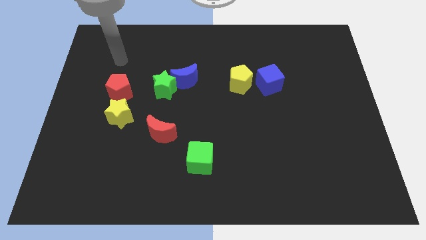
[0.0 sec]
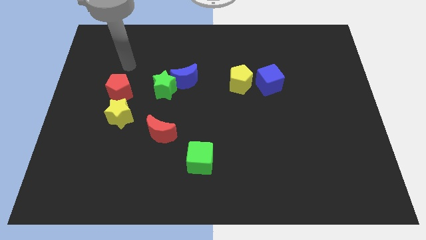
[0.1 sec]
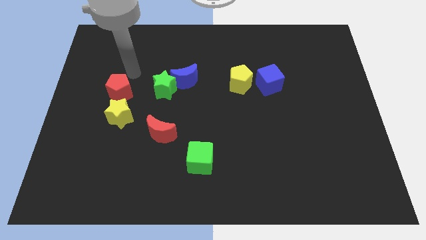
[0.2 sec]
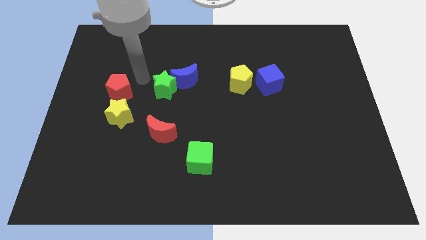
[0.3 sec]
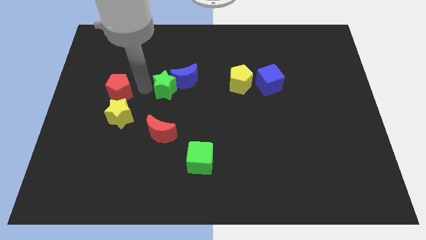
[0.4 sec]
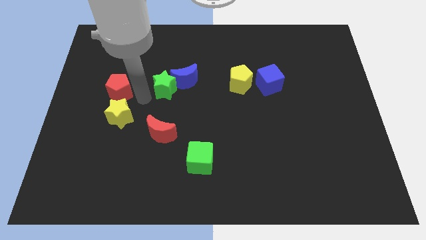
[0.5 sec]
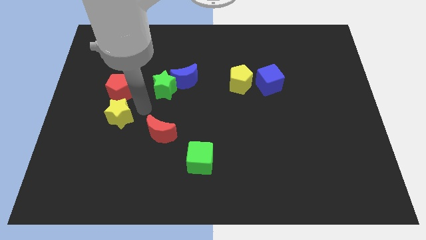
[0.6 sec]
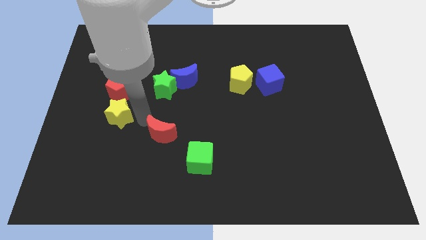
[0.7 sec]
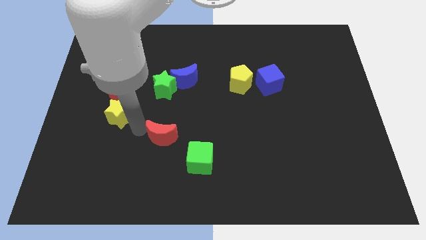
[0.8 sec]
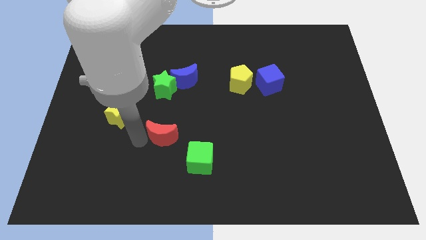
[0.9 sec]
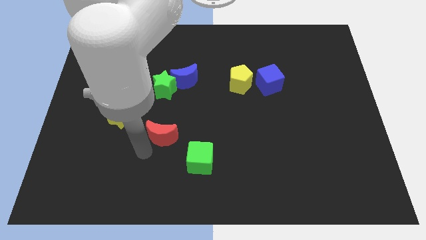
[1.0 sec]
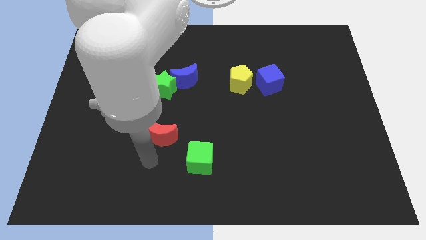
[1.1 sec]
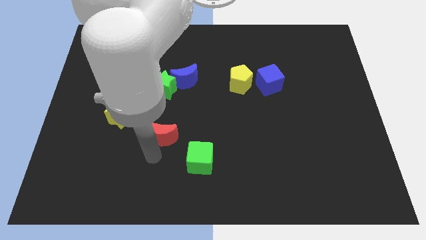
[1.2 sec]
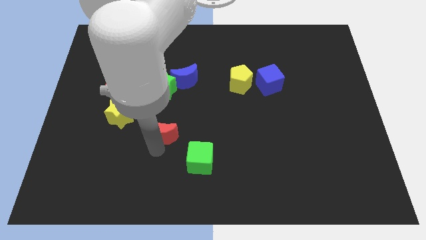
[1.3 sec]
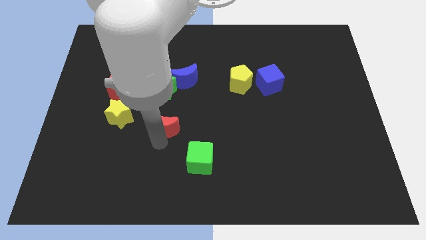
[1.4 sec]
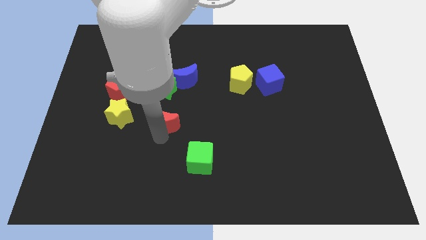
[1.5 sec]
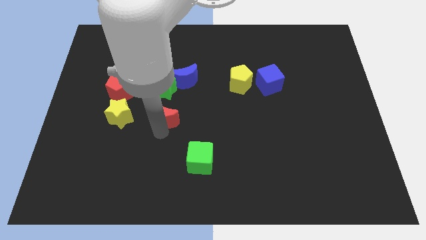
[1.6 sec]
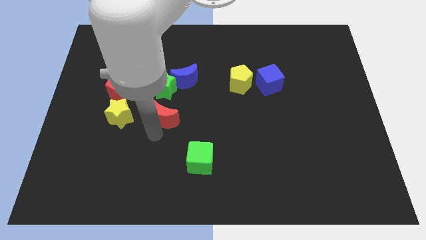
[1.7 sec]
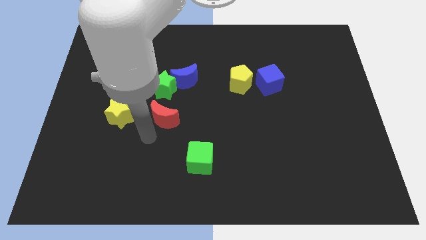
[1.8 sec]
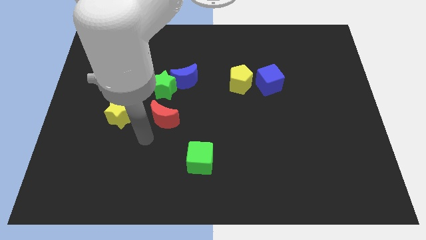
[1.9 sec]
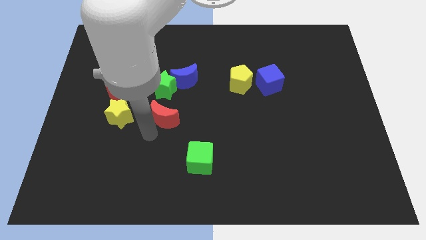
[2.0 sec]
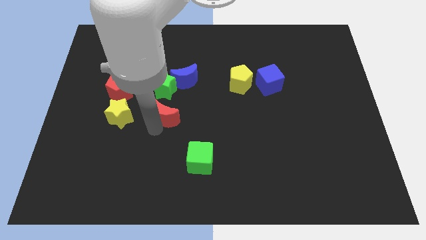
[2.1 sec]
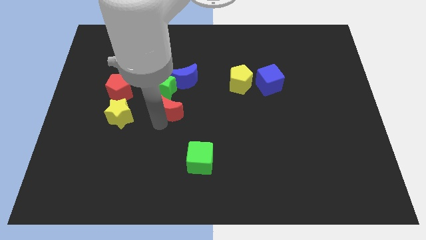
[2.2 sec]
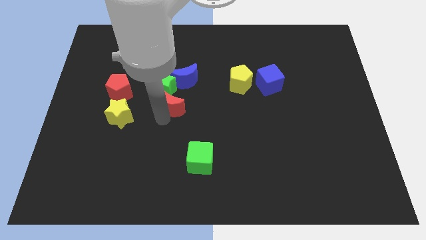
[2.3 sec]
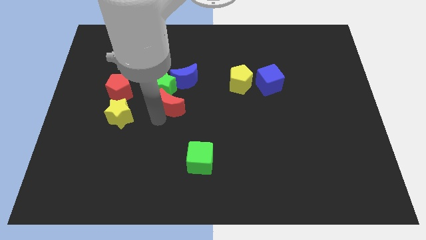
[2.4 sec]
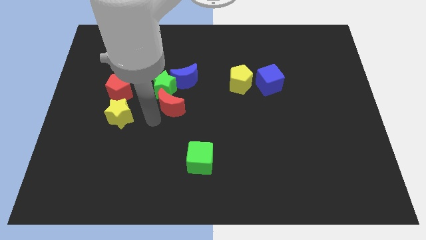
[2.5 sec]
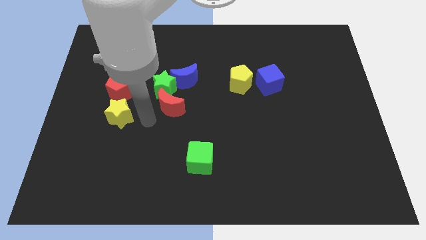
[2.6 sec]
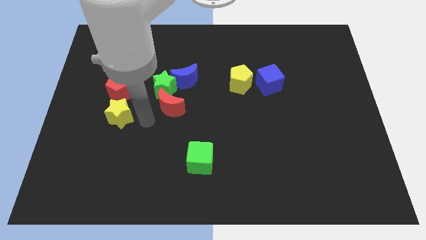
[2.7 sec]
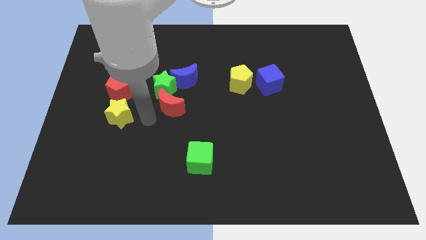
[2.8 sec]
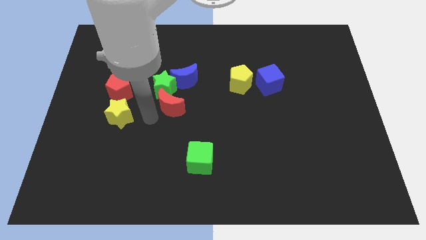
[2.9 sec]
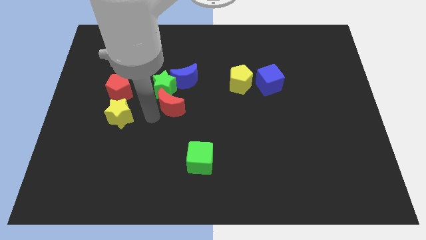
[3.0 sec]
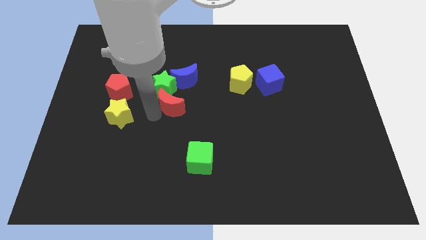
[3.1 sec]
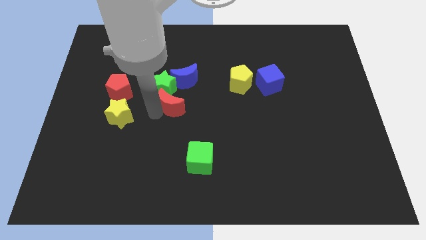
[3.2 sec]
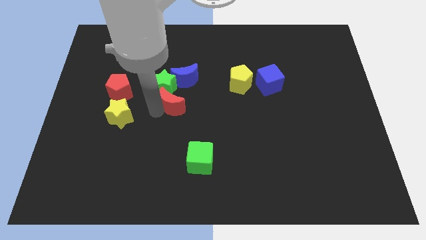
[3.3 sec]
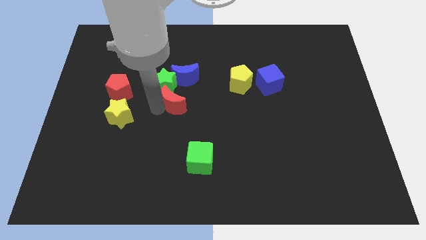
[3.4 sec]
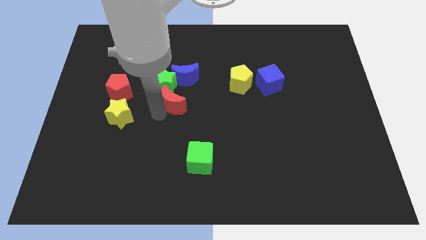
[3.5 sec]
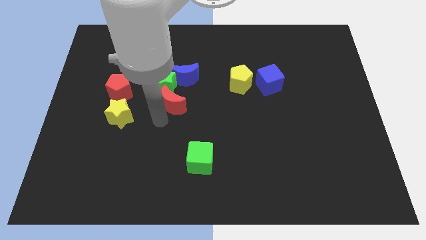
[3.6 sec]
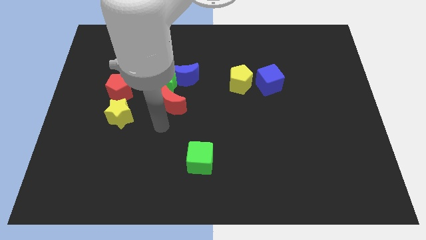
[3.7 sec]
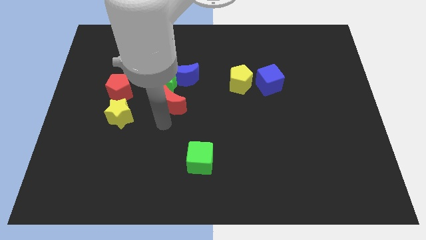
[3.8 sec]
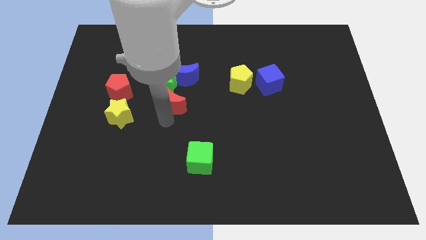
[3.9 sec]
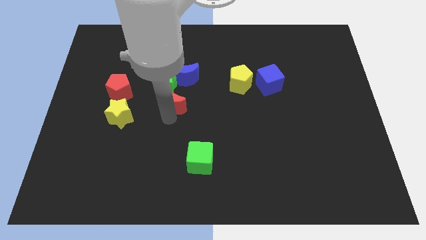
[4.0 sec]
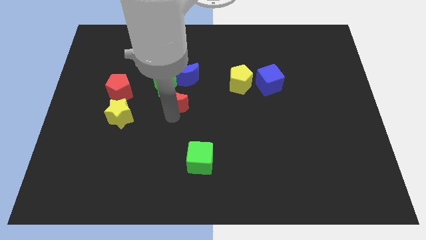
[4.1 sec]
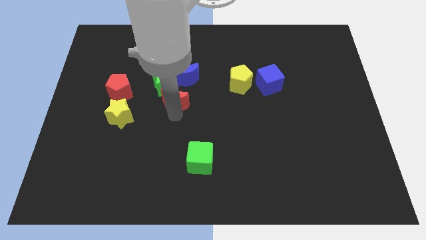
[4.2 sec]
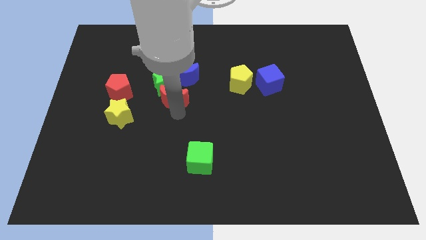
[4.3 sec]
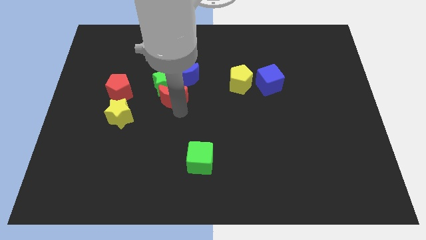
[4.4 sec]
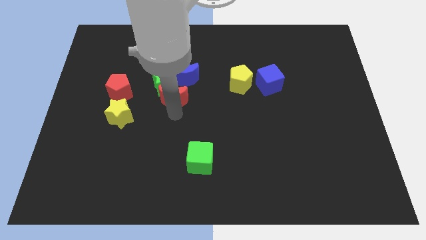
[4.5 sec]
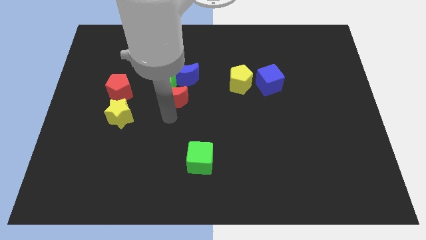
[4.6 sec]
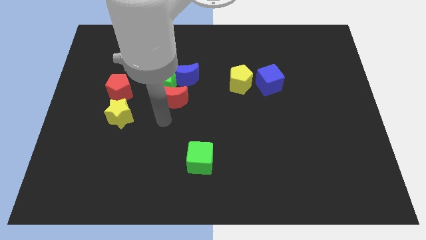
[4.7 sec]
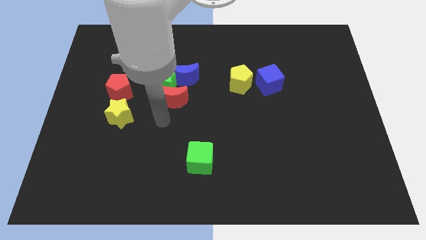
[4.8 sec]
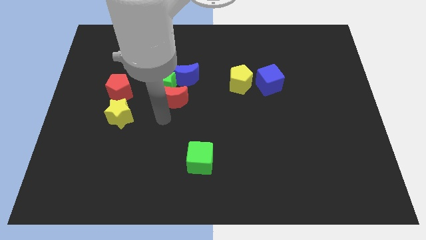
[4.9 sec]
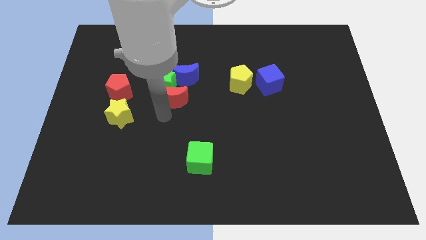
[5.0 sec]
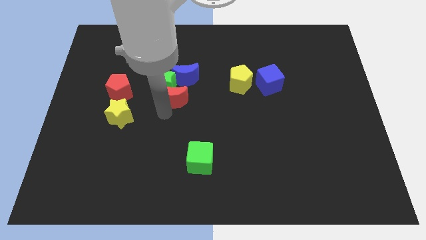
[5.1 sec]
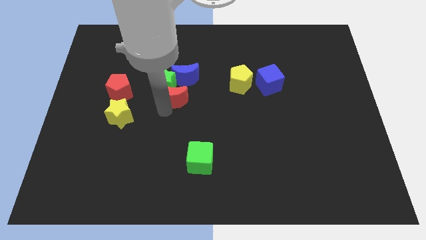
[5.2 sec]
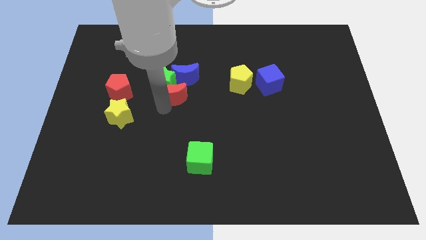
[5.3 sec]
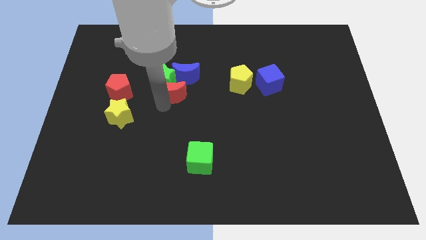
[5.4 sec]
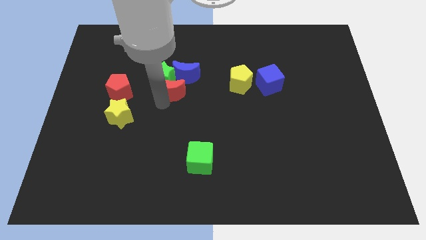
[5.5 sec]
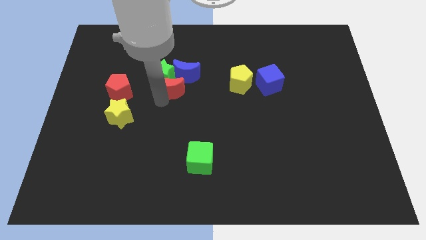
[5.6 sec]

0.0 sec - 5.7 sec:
push the red moon next to the blue moon

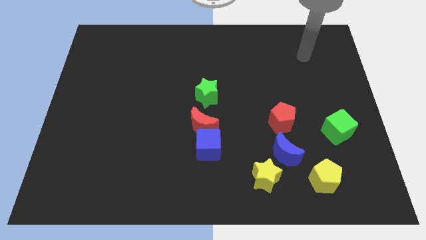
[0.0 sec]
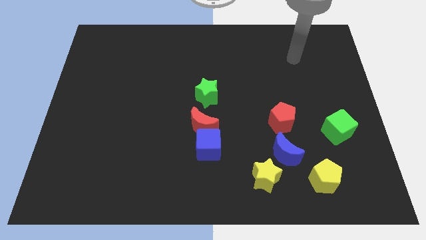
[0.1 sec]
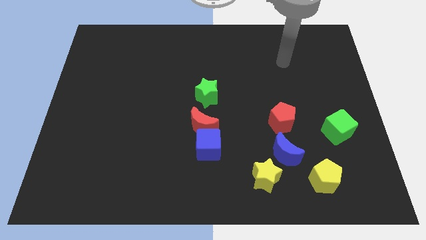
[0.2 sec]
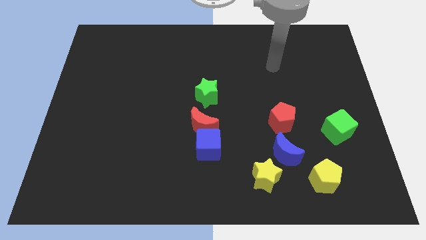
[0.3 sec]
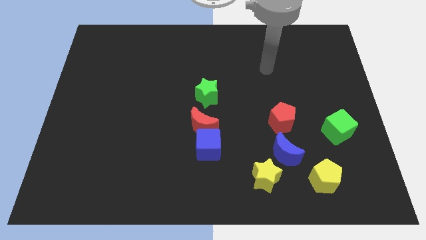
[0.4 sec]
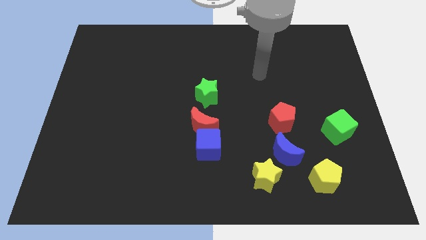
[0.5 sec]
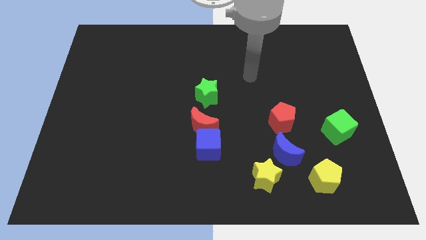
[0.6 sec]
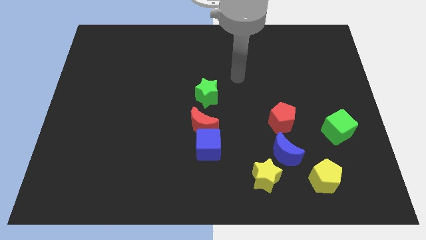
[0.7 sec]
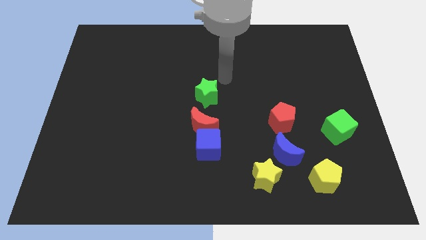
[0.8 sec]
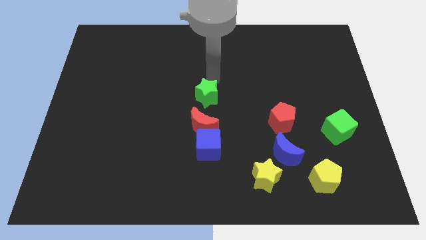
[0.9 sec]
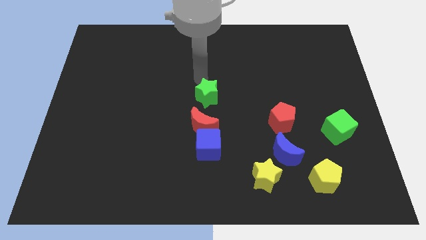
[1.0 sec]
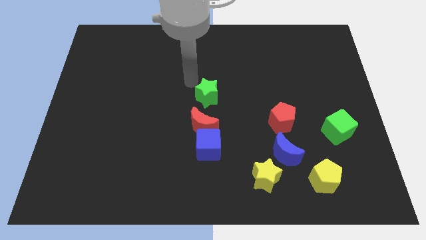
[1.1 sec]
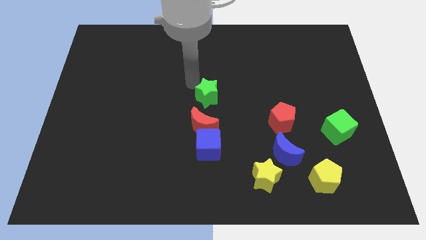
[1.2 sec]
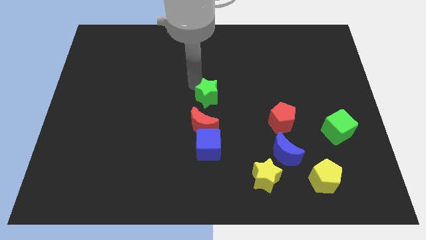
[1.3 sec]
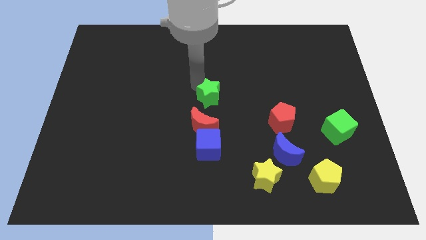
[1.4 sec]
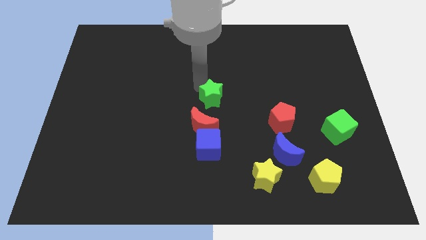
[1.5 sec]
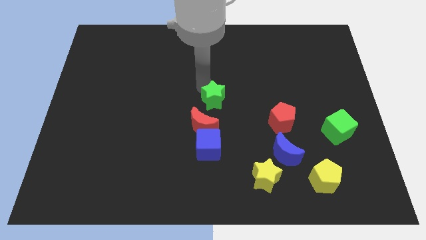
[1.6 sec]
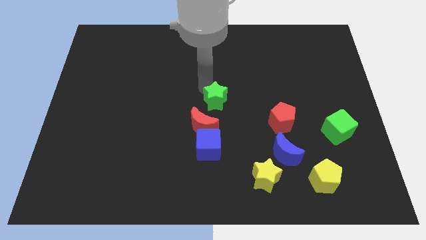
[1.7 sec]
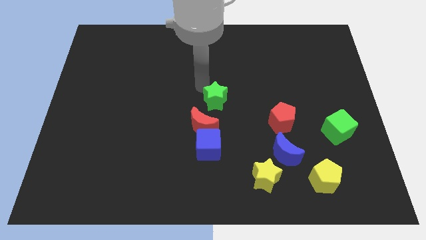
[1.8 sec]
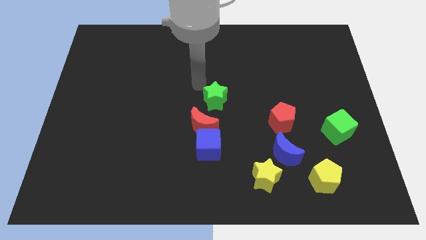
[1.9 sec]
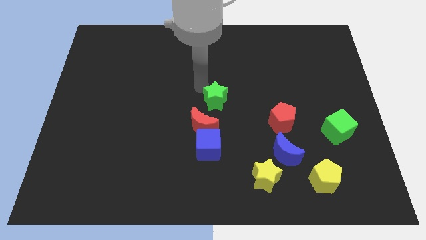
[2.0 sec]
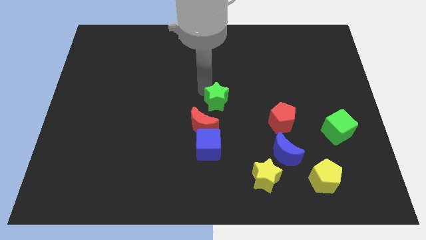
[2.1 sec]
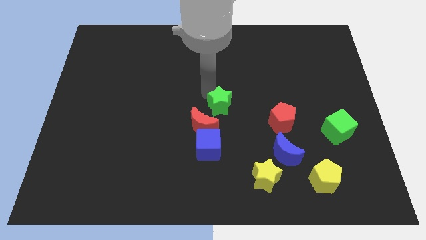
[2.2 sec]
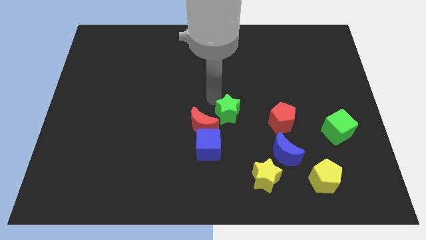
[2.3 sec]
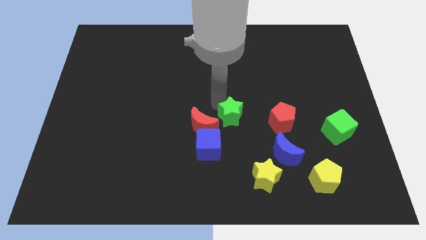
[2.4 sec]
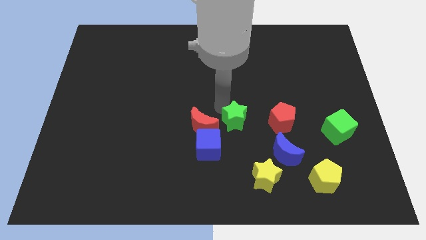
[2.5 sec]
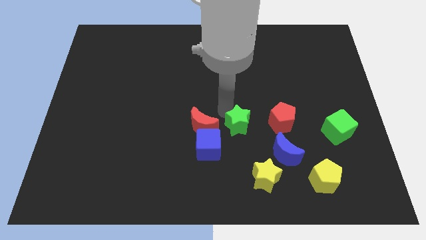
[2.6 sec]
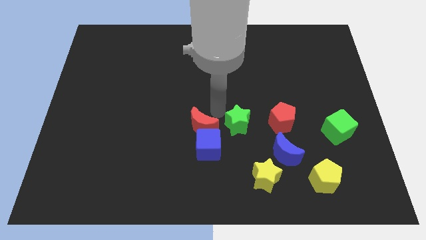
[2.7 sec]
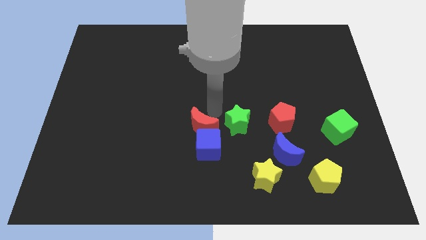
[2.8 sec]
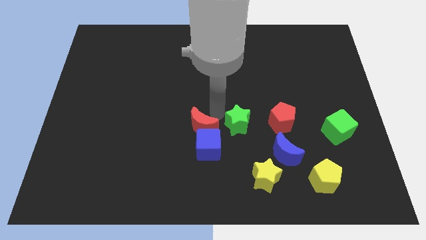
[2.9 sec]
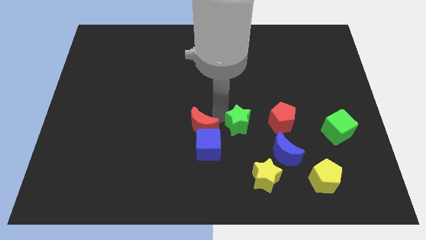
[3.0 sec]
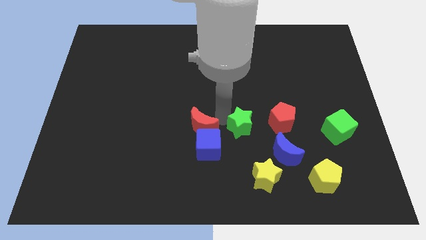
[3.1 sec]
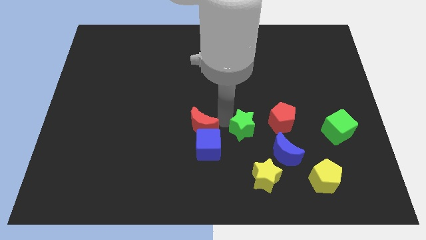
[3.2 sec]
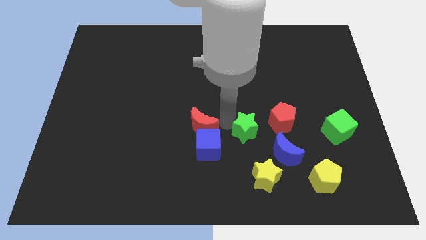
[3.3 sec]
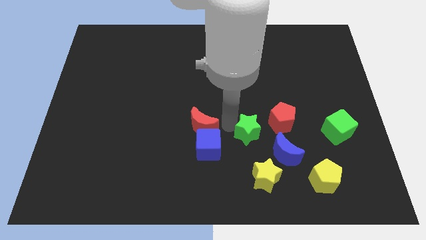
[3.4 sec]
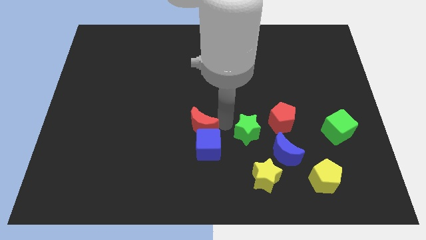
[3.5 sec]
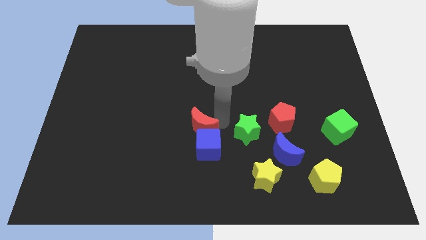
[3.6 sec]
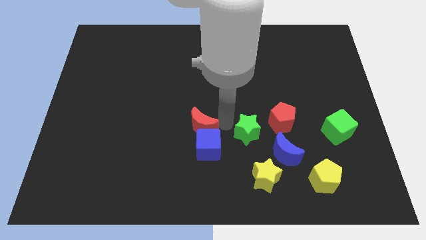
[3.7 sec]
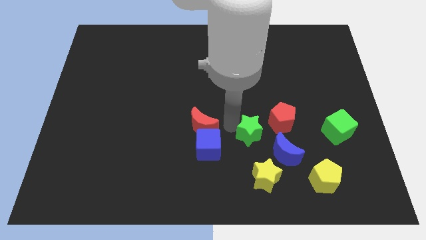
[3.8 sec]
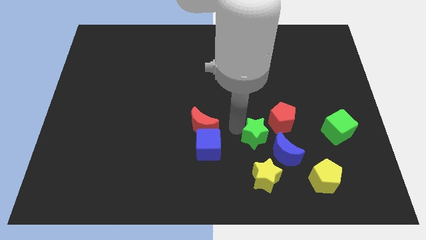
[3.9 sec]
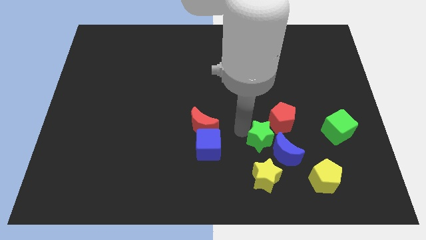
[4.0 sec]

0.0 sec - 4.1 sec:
slide the green star close to the blue moon
